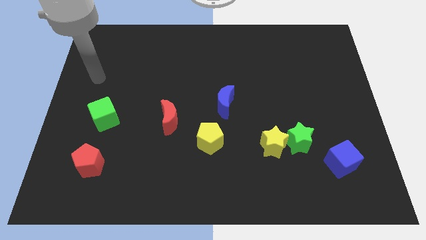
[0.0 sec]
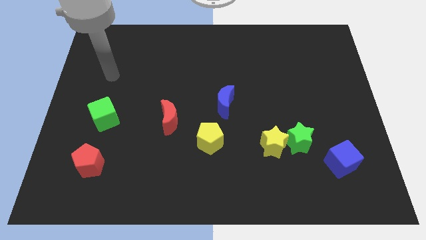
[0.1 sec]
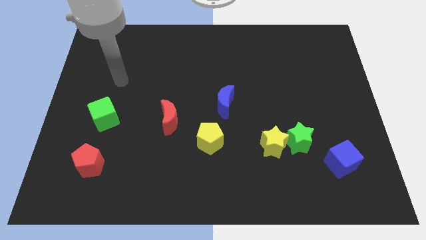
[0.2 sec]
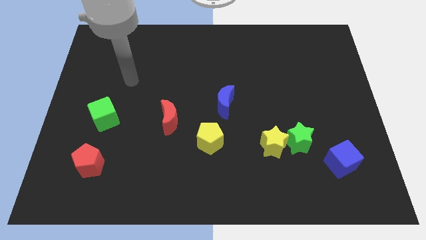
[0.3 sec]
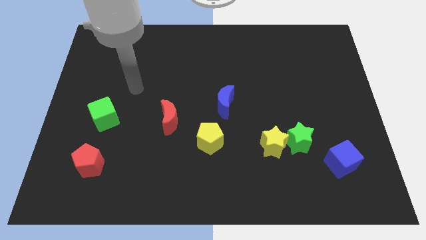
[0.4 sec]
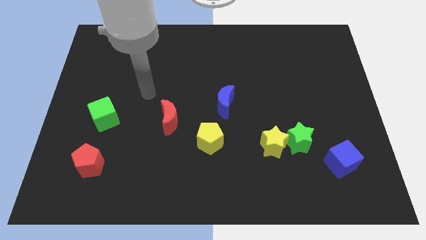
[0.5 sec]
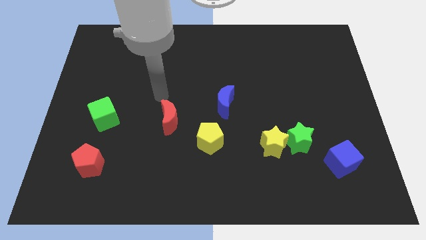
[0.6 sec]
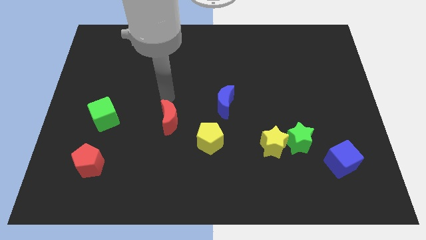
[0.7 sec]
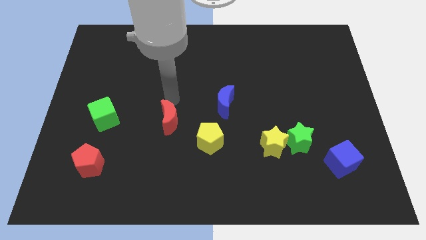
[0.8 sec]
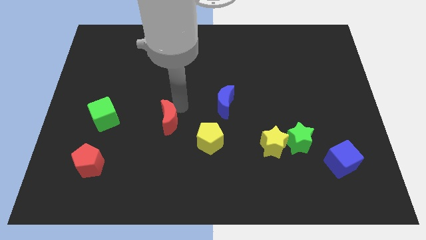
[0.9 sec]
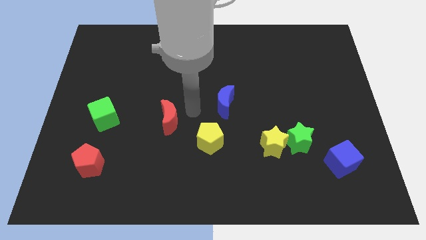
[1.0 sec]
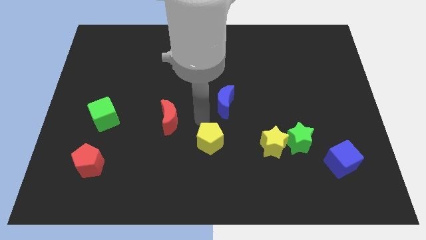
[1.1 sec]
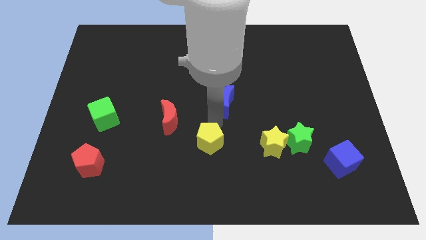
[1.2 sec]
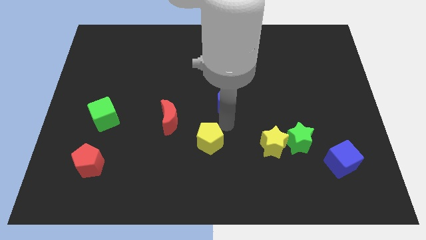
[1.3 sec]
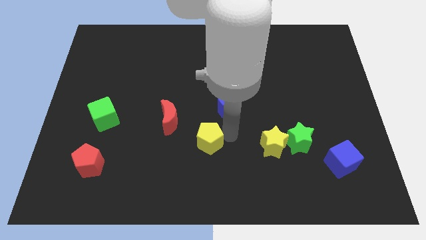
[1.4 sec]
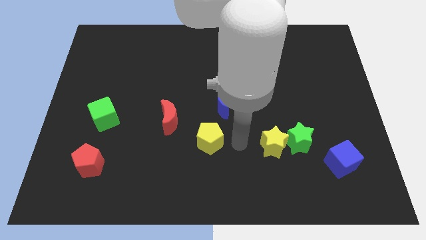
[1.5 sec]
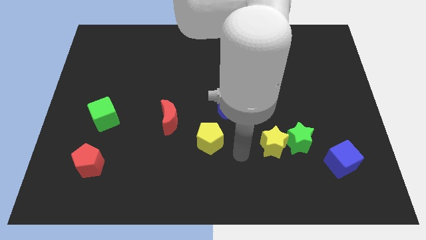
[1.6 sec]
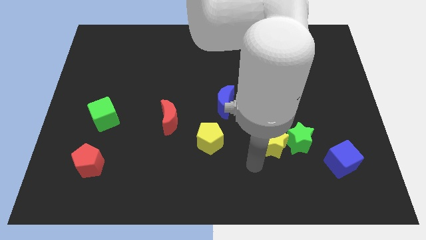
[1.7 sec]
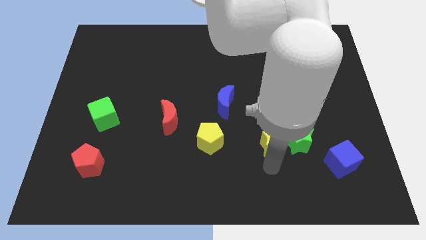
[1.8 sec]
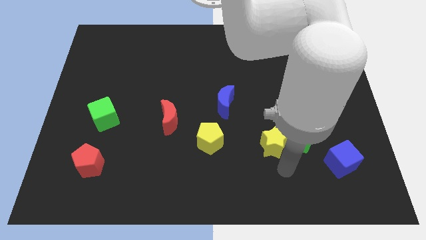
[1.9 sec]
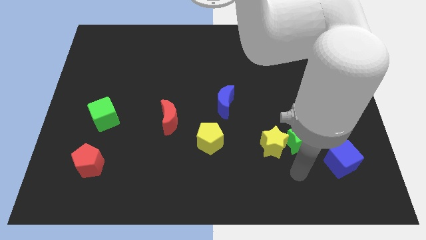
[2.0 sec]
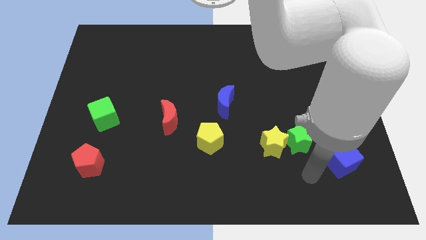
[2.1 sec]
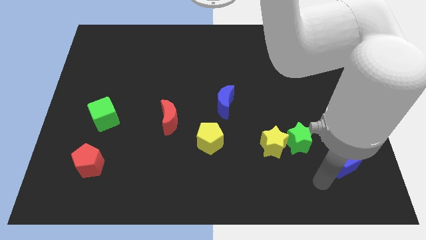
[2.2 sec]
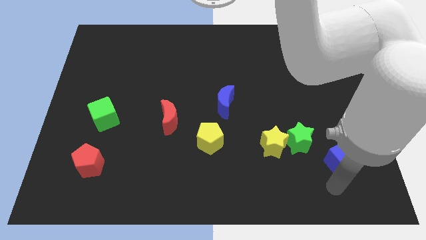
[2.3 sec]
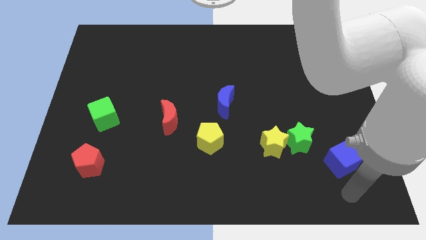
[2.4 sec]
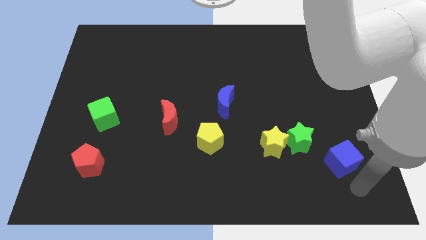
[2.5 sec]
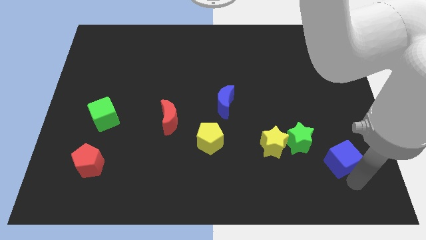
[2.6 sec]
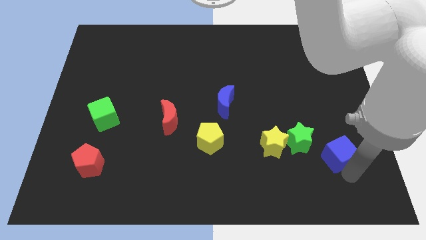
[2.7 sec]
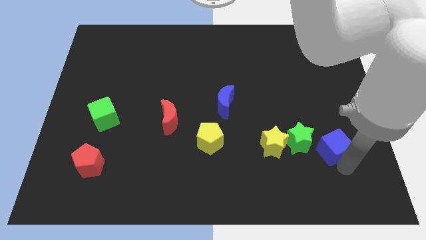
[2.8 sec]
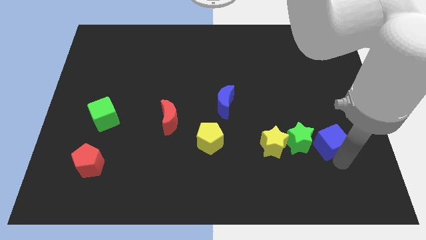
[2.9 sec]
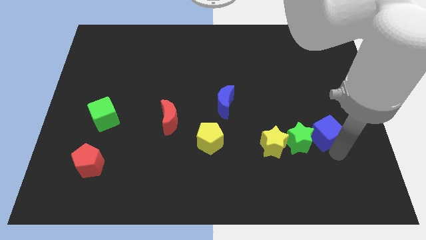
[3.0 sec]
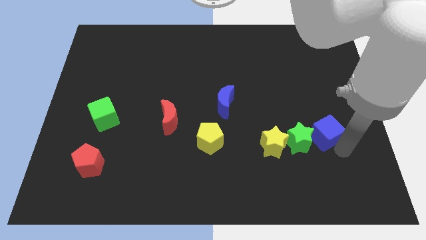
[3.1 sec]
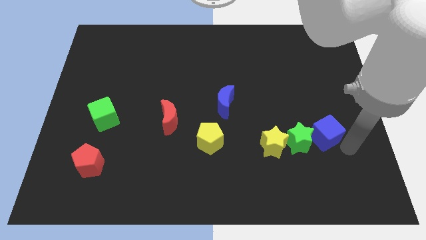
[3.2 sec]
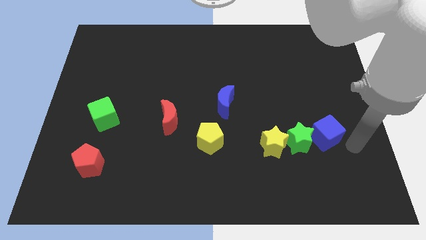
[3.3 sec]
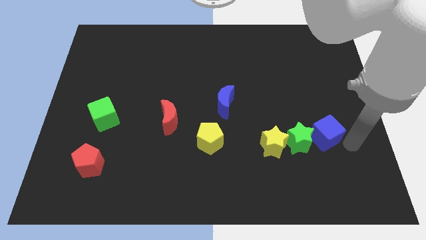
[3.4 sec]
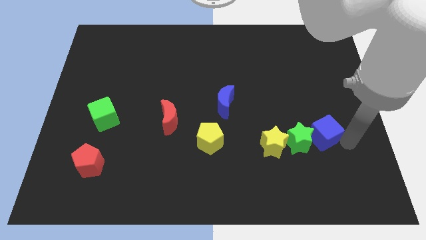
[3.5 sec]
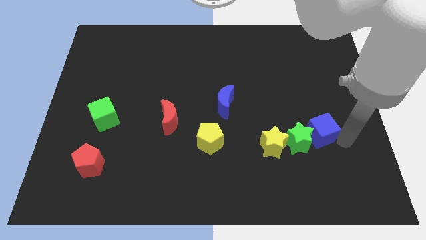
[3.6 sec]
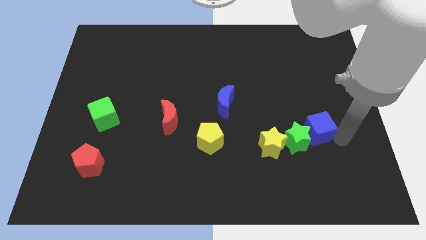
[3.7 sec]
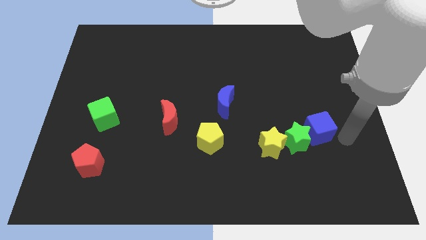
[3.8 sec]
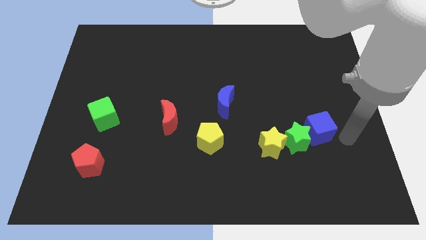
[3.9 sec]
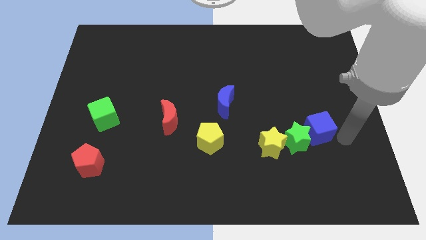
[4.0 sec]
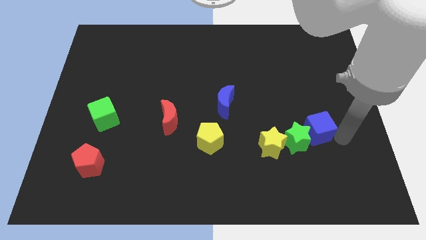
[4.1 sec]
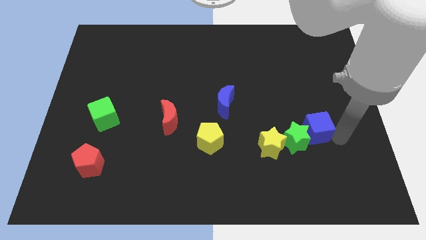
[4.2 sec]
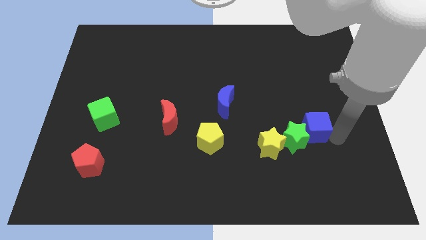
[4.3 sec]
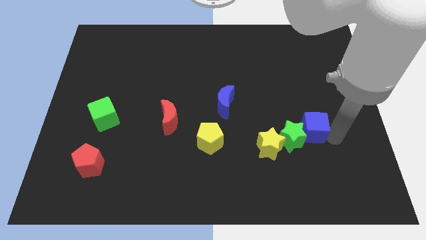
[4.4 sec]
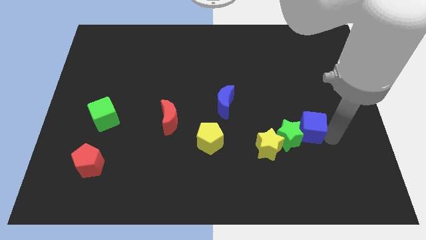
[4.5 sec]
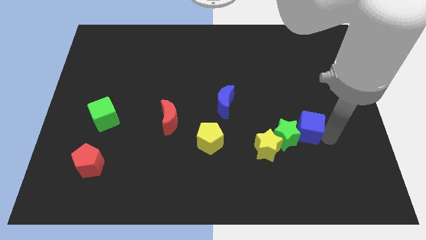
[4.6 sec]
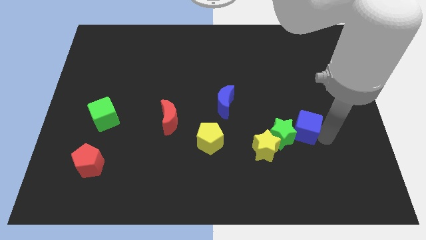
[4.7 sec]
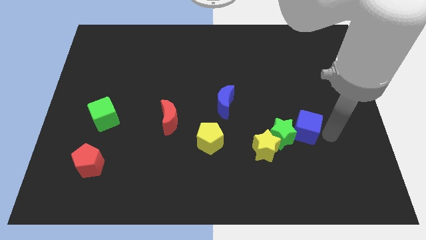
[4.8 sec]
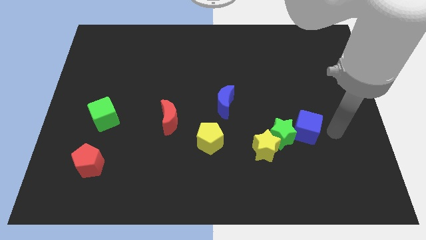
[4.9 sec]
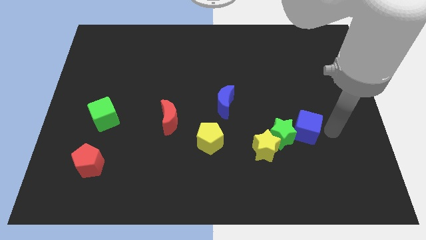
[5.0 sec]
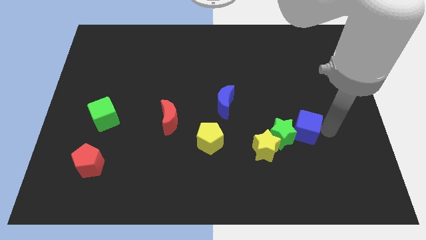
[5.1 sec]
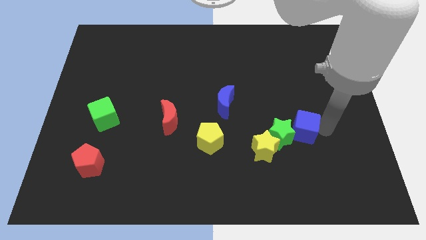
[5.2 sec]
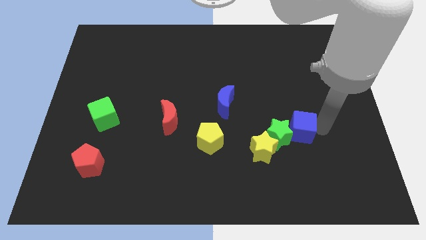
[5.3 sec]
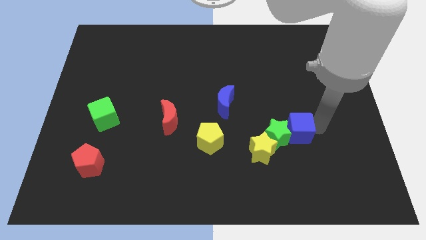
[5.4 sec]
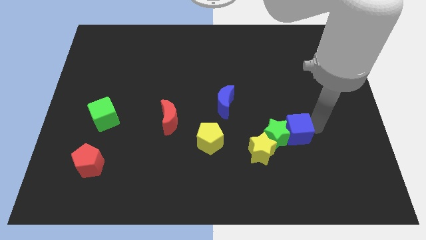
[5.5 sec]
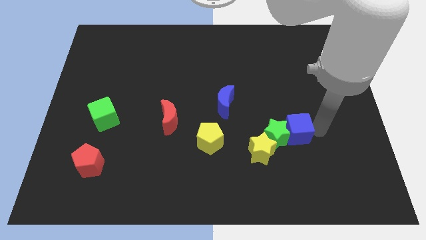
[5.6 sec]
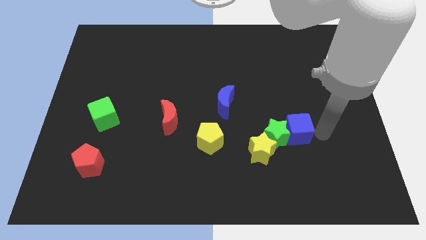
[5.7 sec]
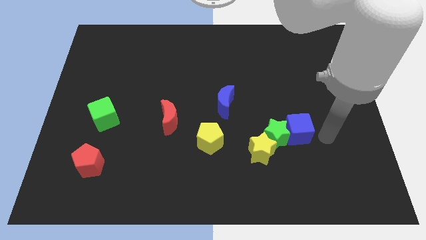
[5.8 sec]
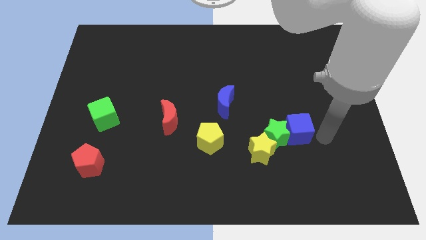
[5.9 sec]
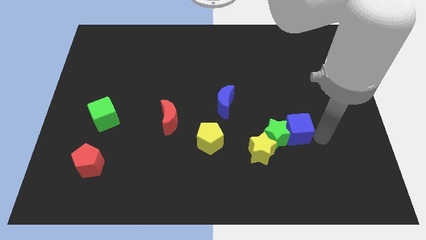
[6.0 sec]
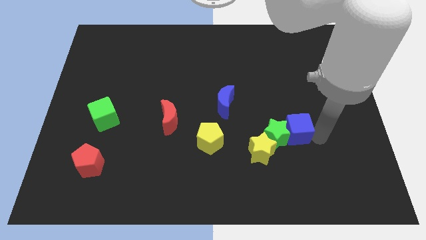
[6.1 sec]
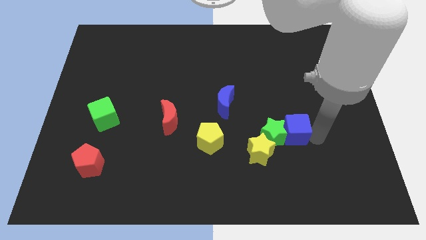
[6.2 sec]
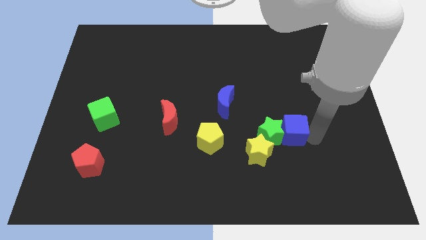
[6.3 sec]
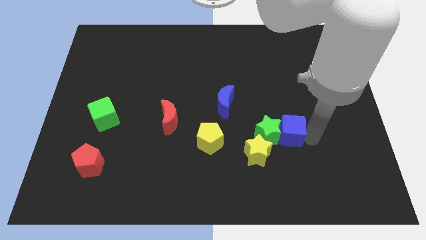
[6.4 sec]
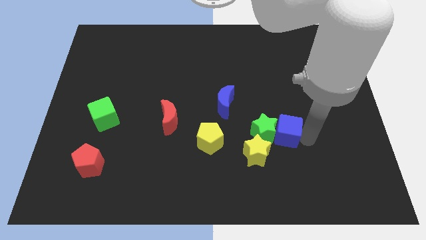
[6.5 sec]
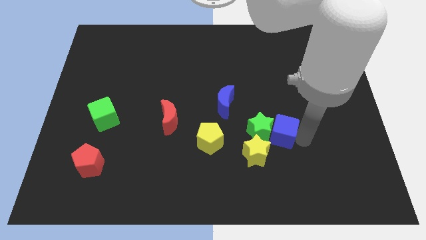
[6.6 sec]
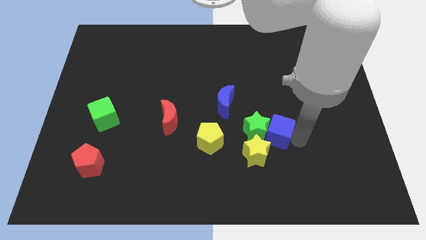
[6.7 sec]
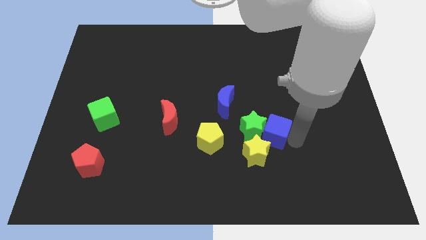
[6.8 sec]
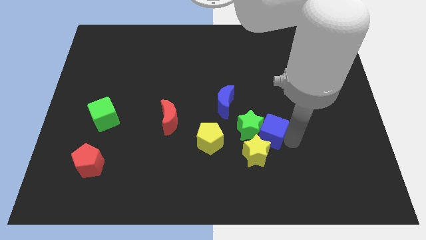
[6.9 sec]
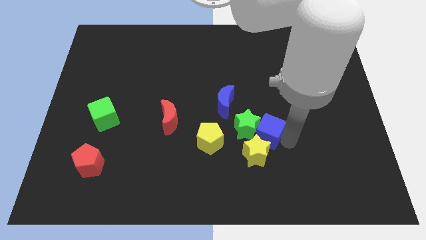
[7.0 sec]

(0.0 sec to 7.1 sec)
put the blue cube to the bottom right side of the blue moon
